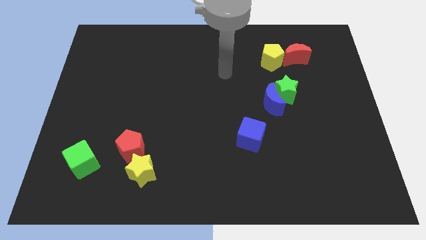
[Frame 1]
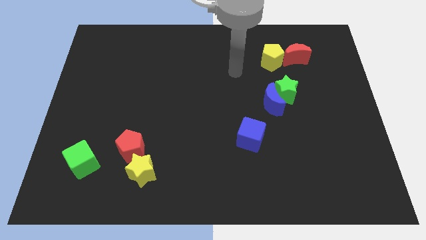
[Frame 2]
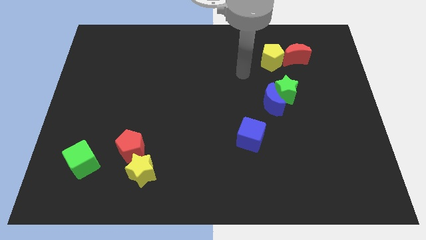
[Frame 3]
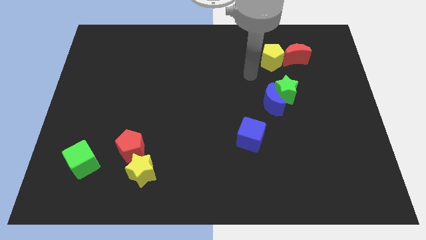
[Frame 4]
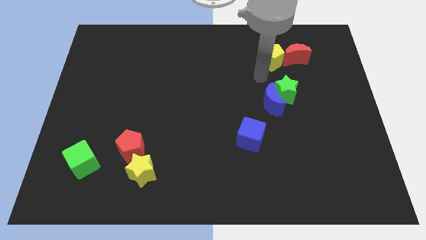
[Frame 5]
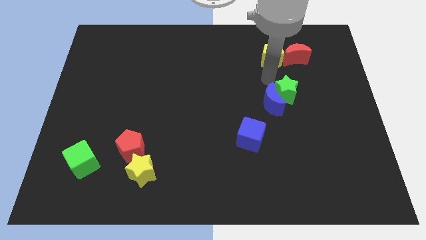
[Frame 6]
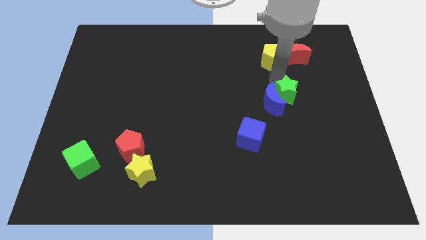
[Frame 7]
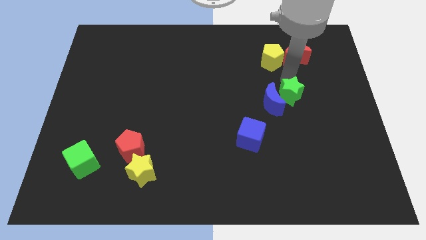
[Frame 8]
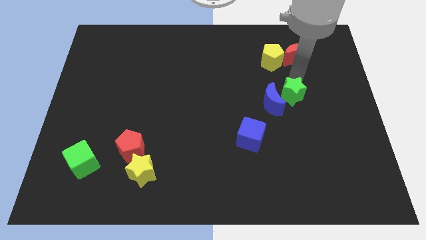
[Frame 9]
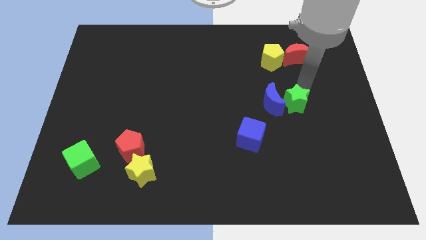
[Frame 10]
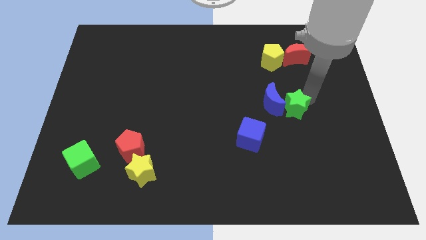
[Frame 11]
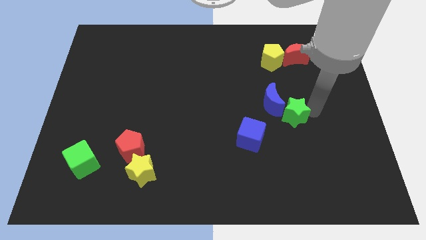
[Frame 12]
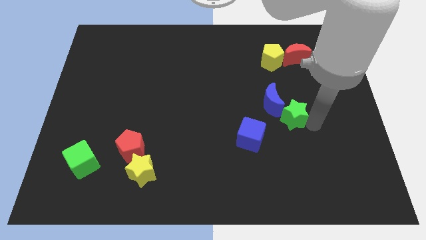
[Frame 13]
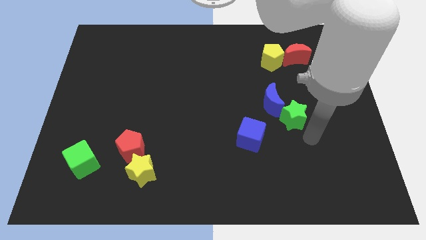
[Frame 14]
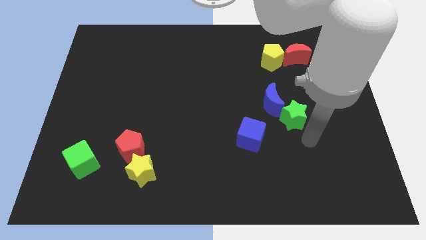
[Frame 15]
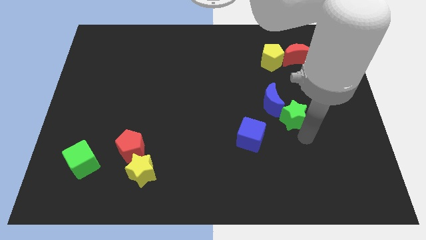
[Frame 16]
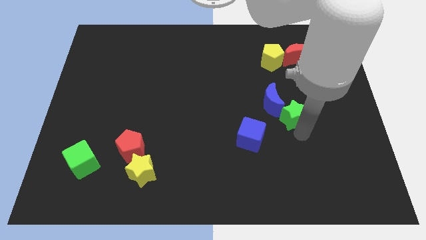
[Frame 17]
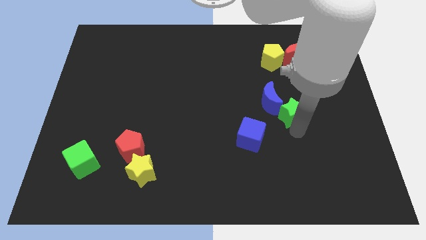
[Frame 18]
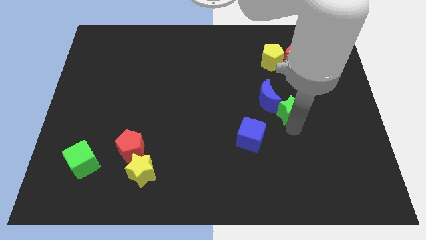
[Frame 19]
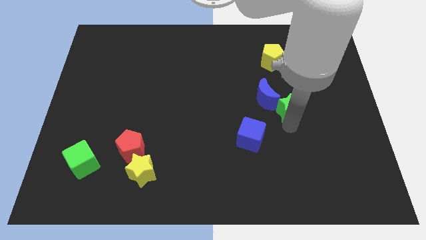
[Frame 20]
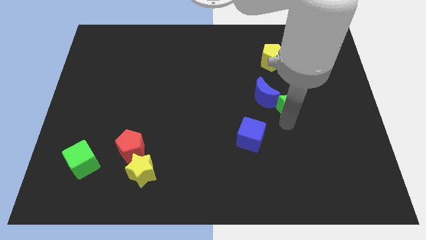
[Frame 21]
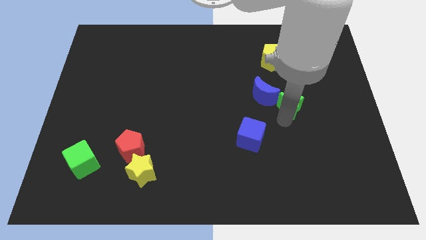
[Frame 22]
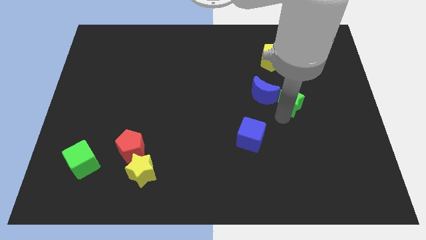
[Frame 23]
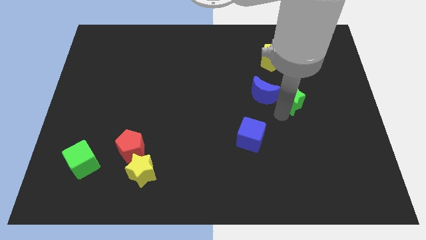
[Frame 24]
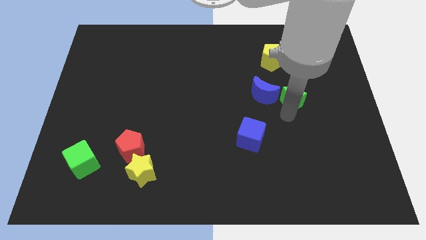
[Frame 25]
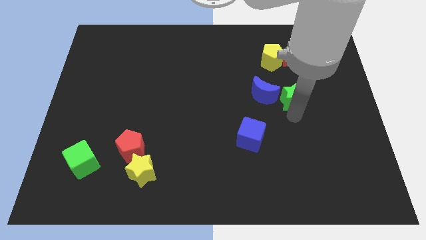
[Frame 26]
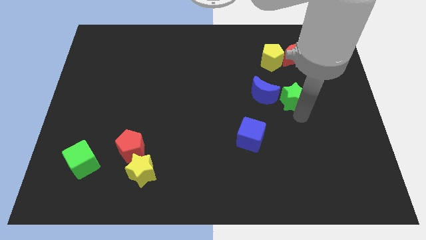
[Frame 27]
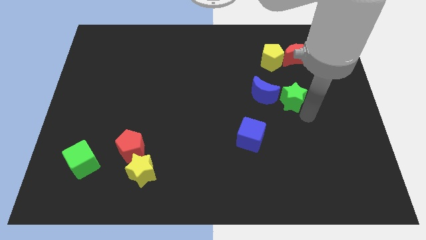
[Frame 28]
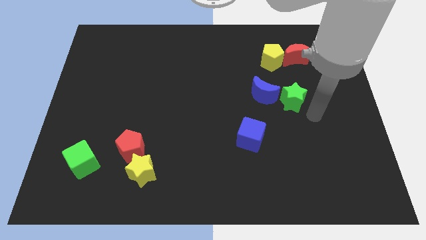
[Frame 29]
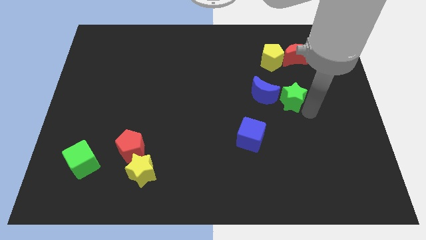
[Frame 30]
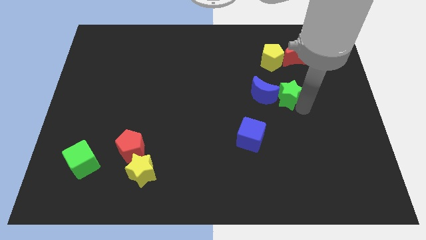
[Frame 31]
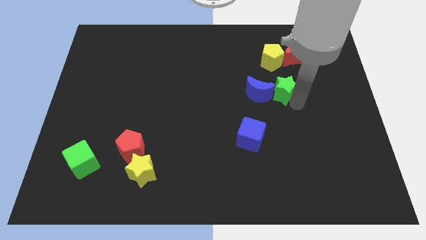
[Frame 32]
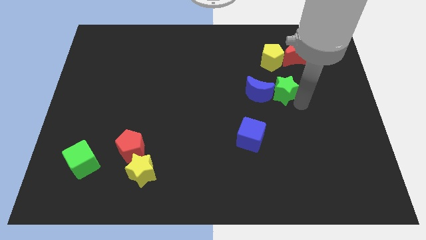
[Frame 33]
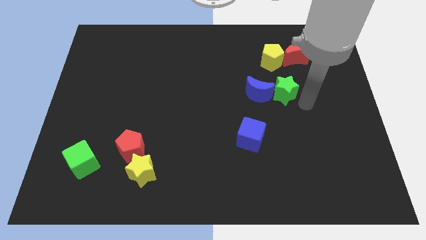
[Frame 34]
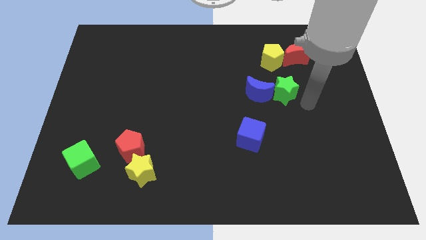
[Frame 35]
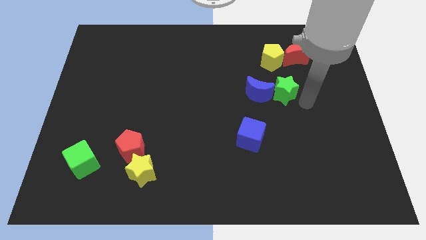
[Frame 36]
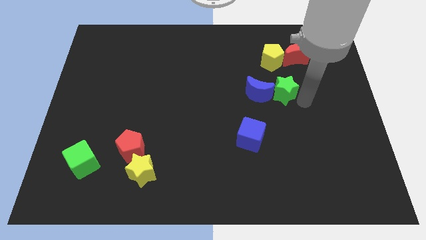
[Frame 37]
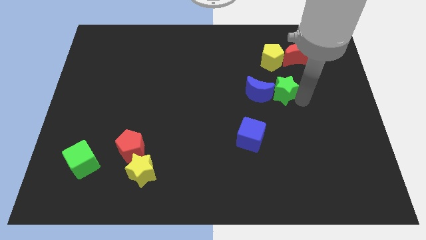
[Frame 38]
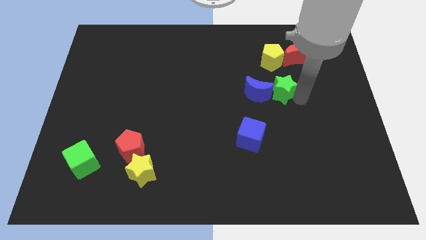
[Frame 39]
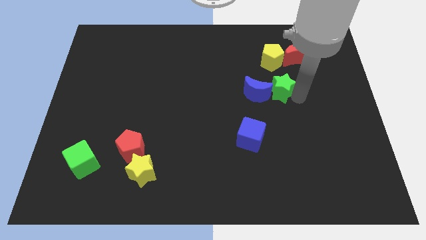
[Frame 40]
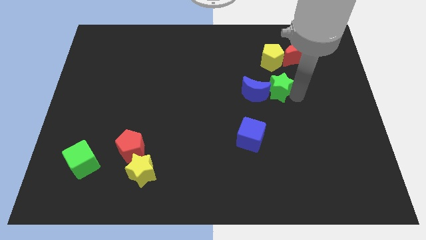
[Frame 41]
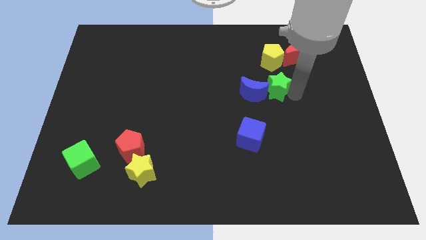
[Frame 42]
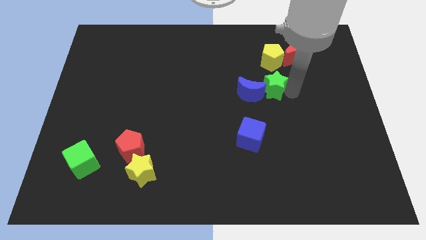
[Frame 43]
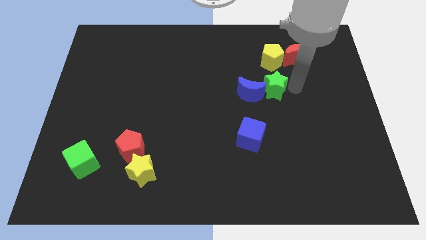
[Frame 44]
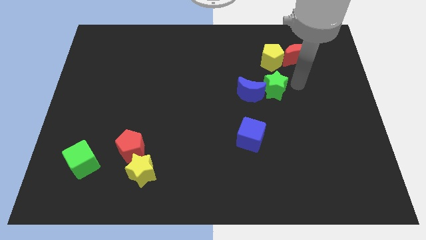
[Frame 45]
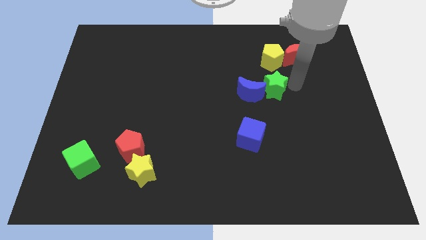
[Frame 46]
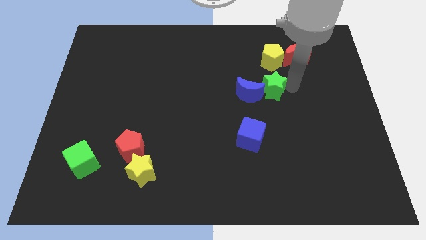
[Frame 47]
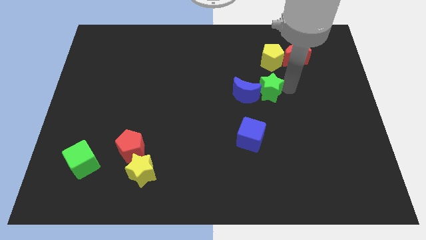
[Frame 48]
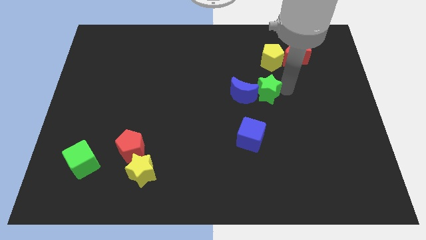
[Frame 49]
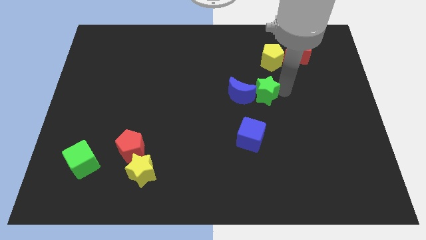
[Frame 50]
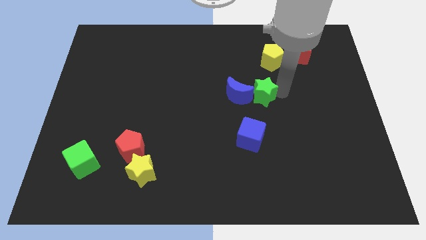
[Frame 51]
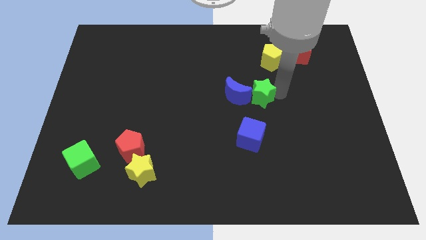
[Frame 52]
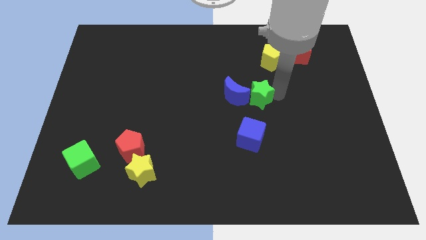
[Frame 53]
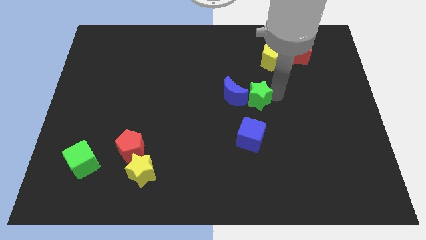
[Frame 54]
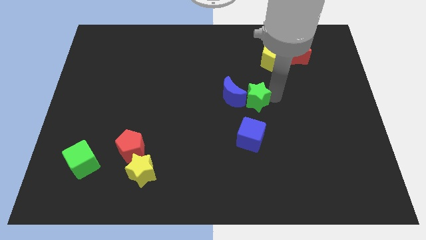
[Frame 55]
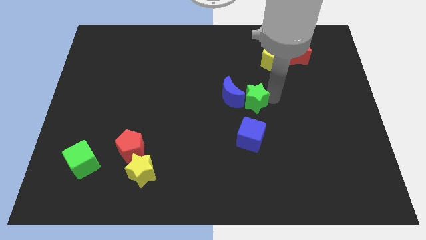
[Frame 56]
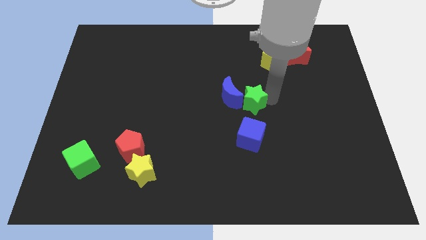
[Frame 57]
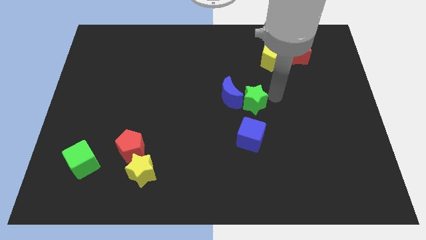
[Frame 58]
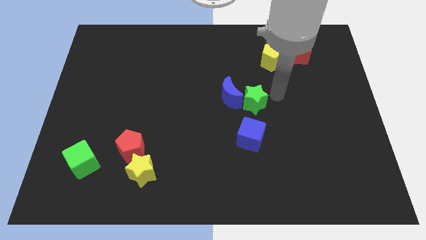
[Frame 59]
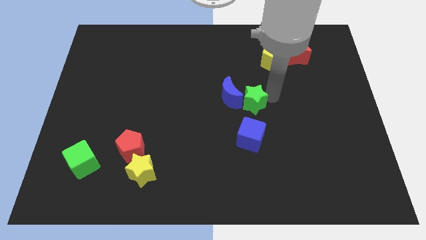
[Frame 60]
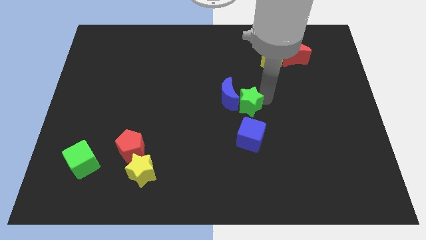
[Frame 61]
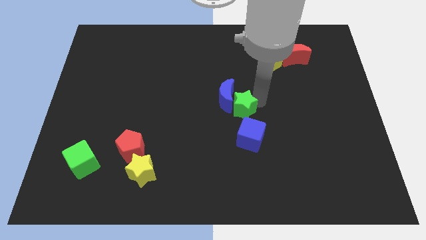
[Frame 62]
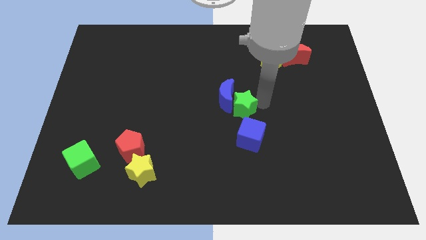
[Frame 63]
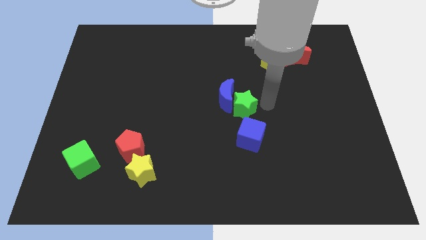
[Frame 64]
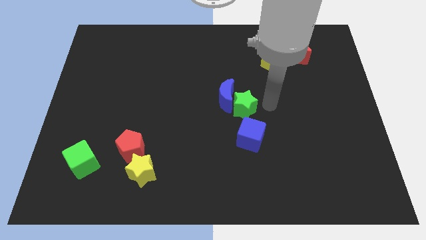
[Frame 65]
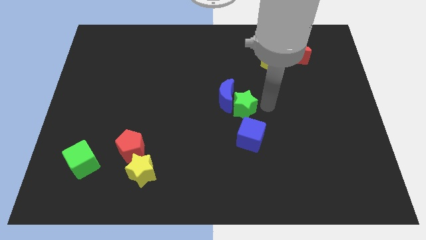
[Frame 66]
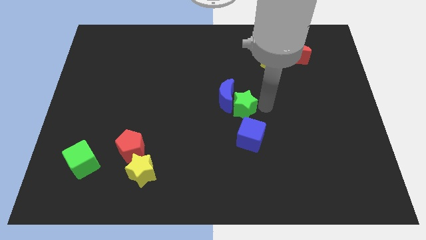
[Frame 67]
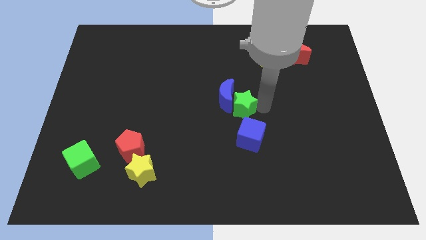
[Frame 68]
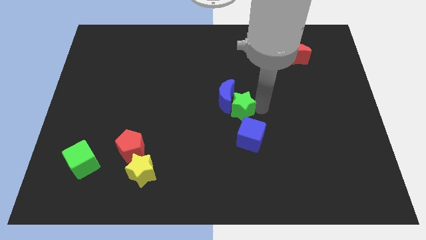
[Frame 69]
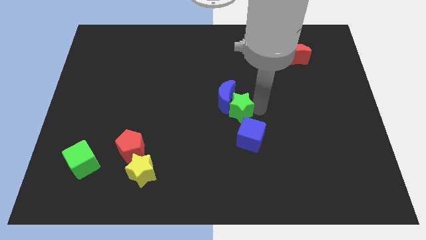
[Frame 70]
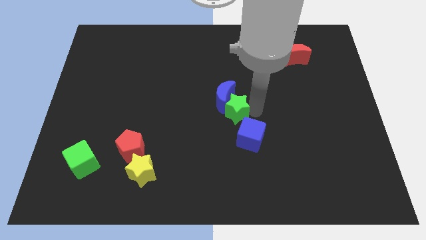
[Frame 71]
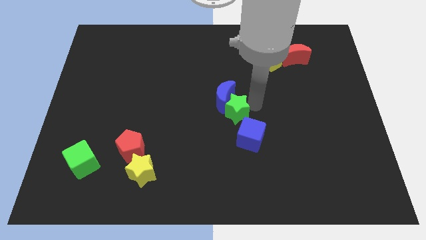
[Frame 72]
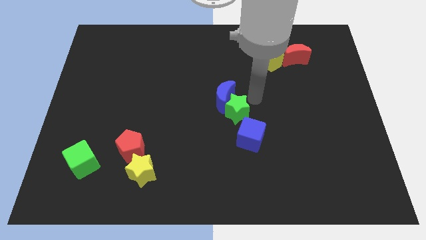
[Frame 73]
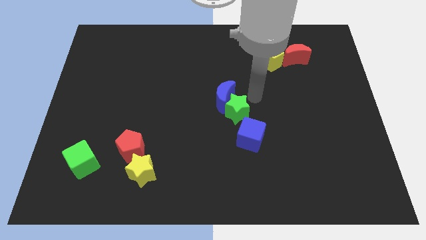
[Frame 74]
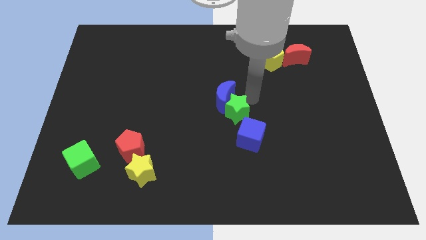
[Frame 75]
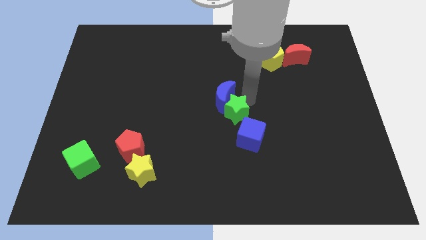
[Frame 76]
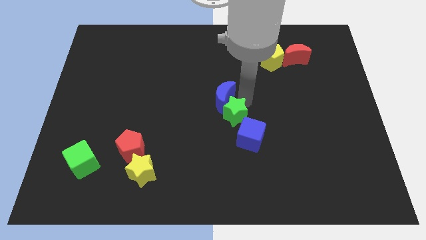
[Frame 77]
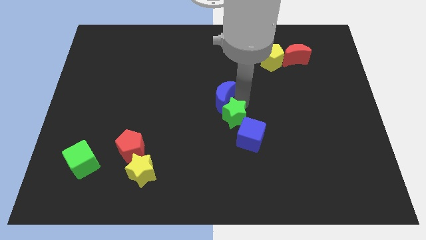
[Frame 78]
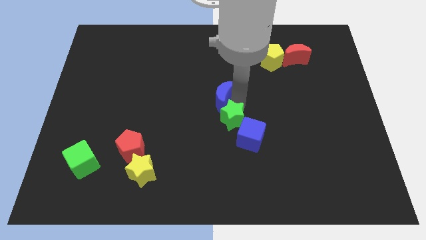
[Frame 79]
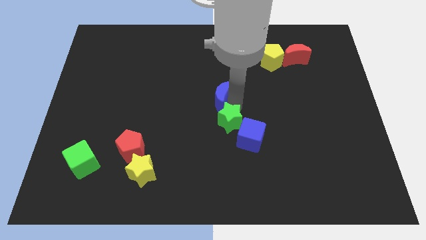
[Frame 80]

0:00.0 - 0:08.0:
push the green star just left of the blue cube
